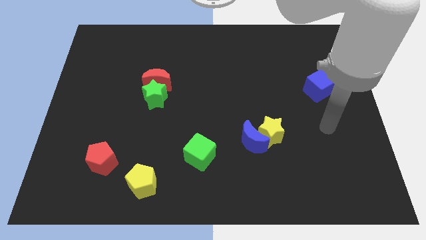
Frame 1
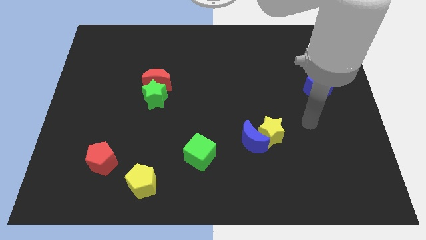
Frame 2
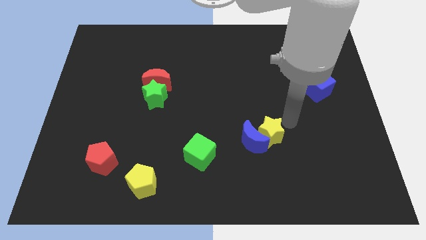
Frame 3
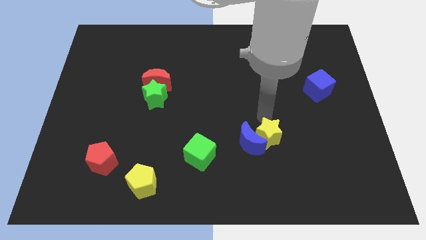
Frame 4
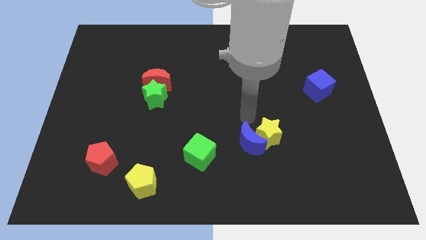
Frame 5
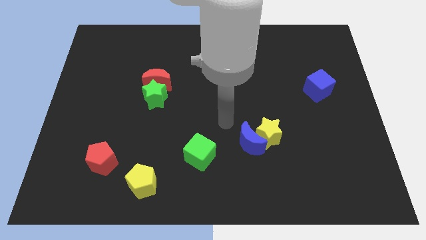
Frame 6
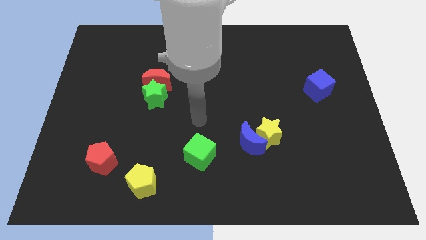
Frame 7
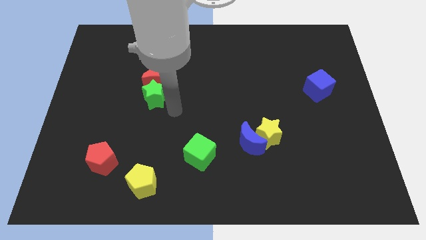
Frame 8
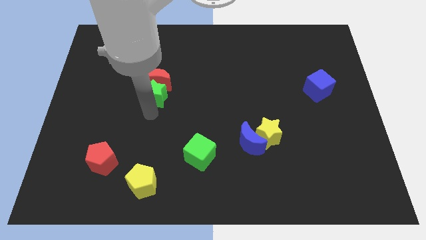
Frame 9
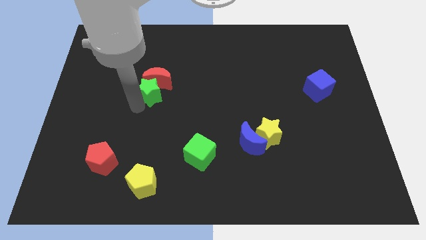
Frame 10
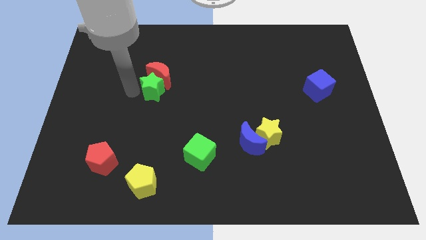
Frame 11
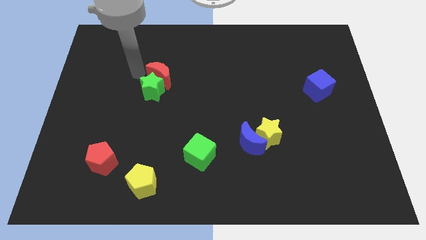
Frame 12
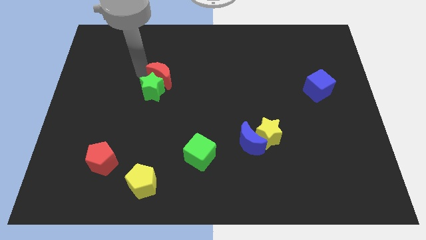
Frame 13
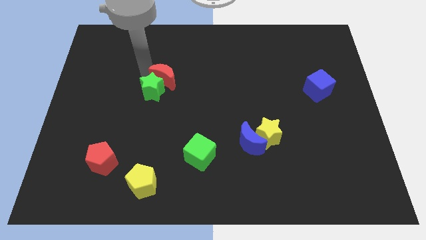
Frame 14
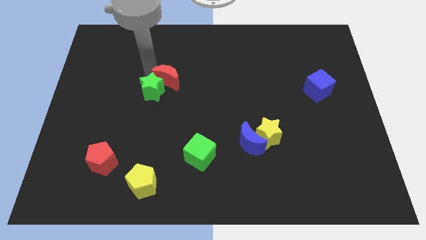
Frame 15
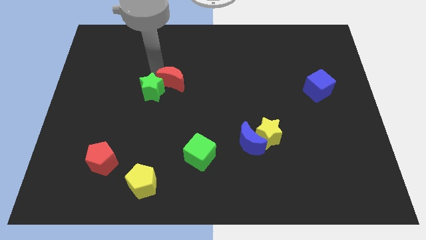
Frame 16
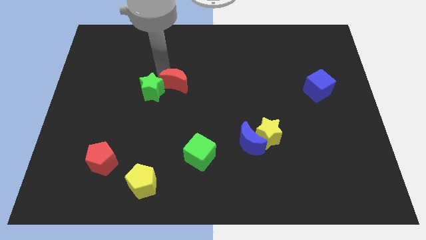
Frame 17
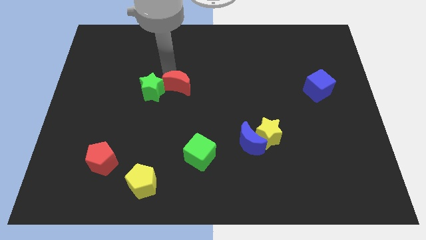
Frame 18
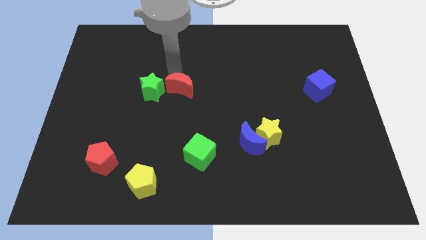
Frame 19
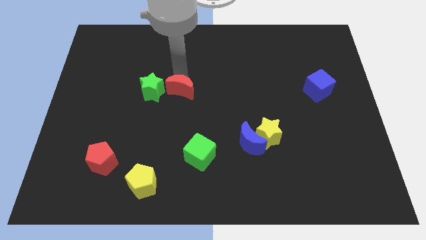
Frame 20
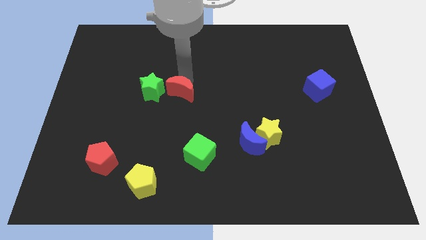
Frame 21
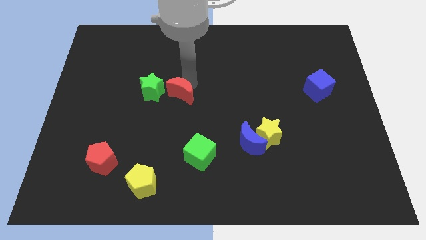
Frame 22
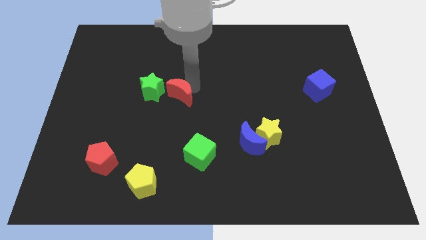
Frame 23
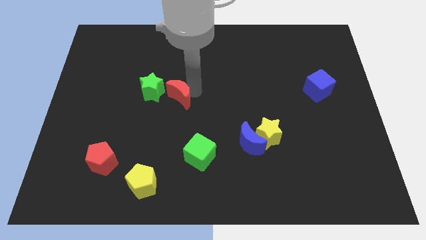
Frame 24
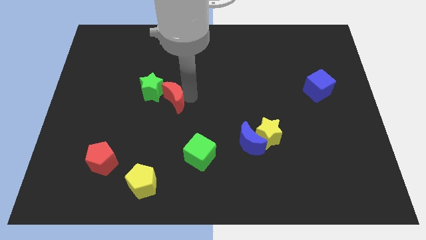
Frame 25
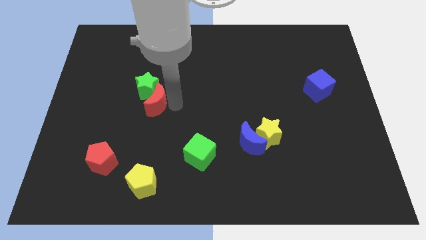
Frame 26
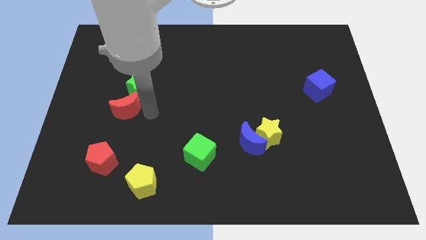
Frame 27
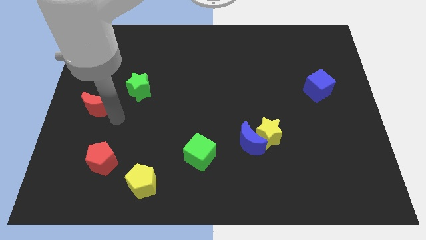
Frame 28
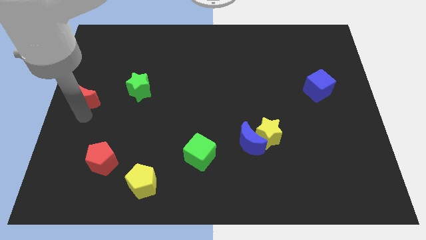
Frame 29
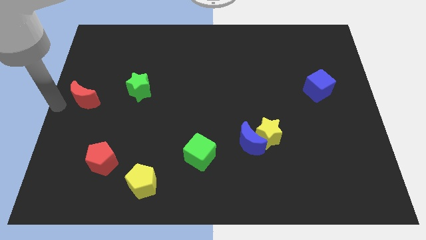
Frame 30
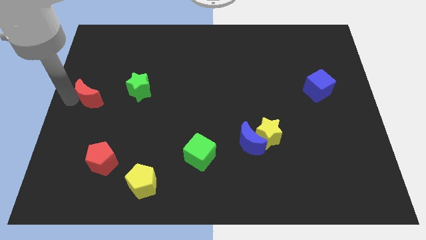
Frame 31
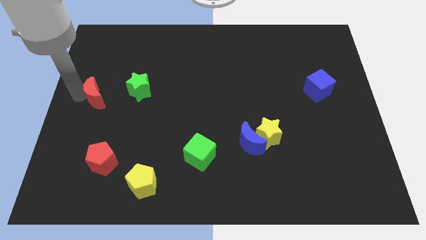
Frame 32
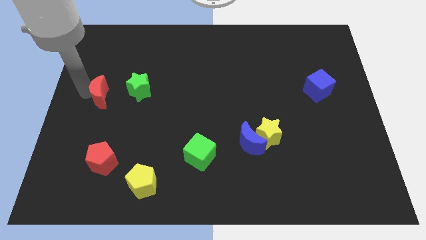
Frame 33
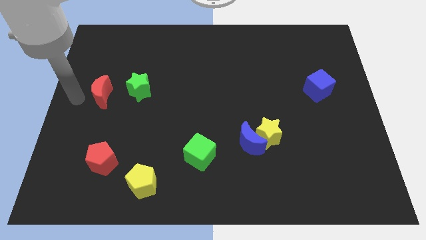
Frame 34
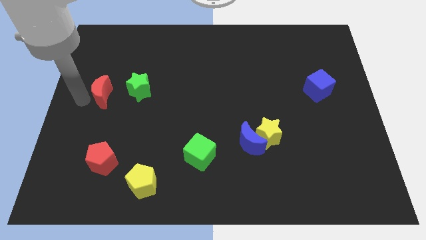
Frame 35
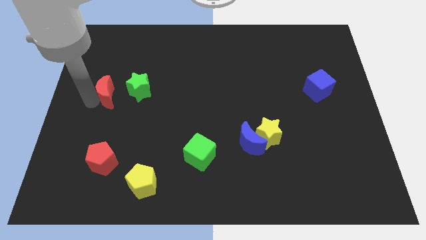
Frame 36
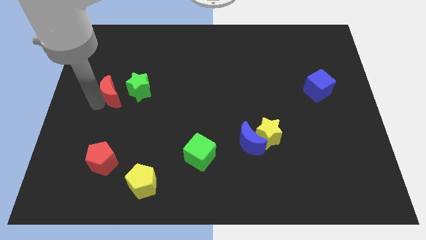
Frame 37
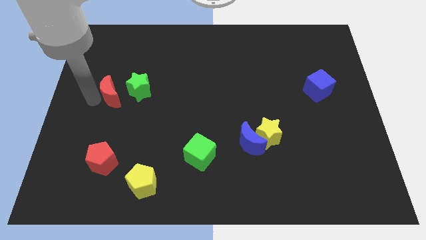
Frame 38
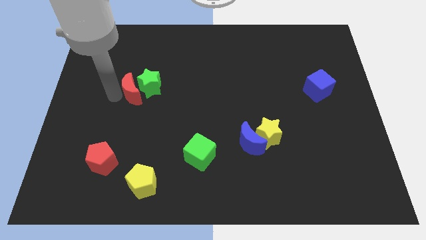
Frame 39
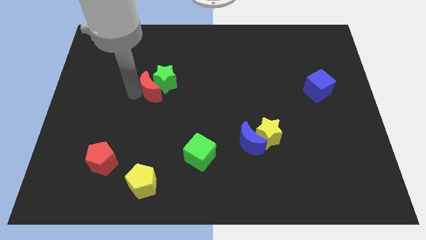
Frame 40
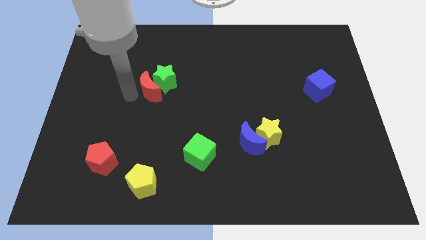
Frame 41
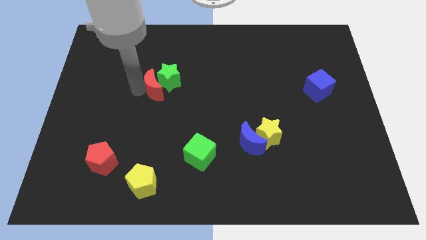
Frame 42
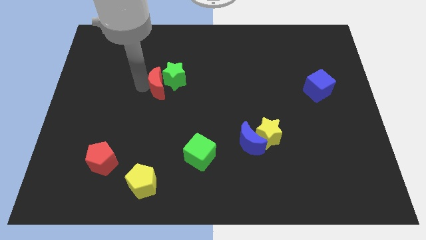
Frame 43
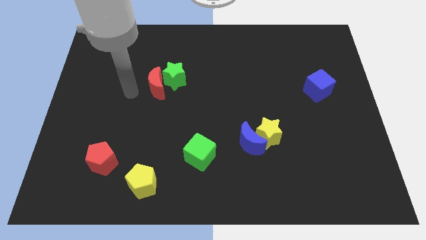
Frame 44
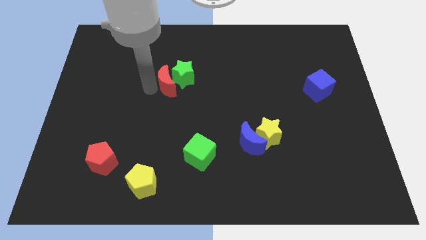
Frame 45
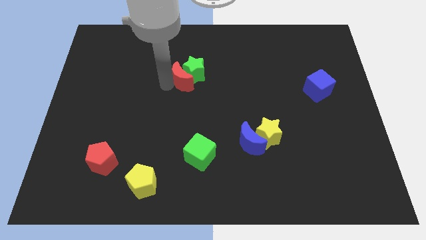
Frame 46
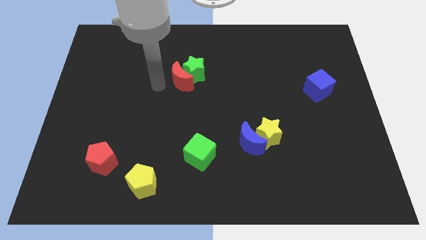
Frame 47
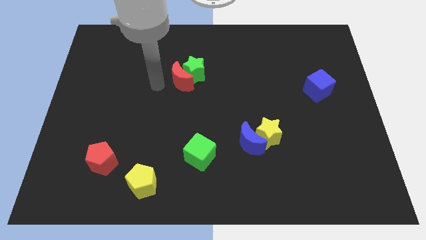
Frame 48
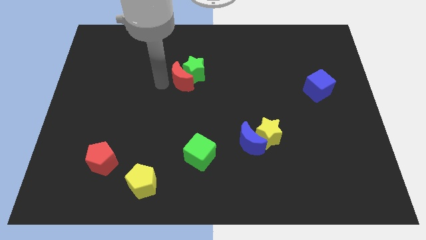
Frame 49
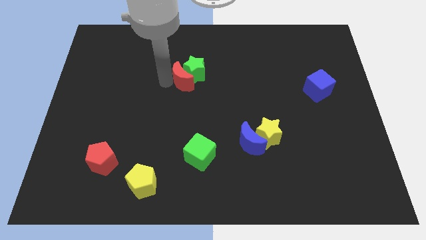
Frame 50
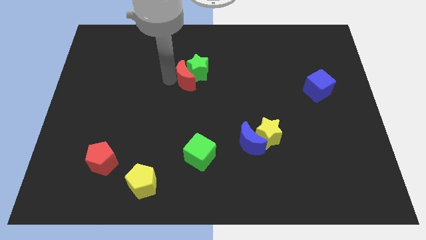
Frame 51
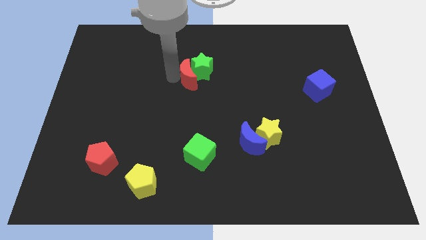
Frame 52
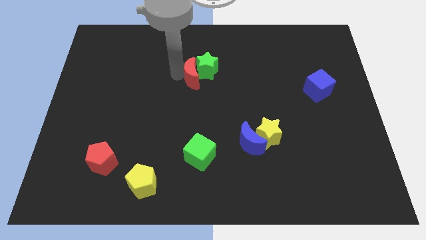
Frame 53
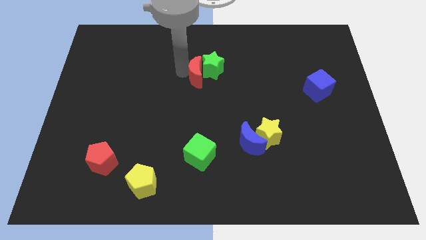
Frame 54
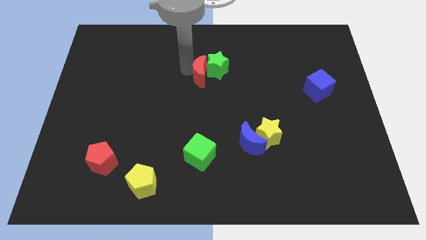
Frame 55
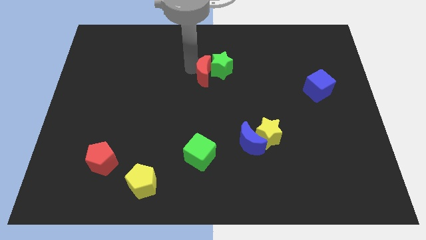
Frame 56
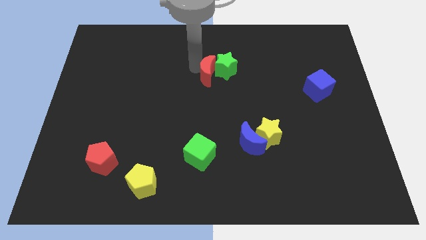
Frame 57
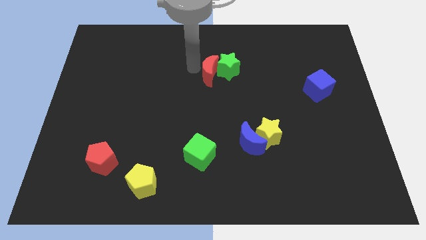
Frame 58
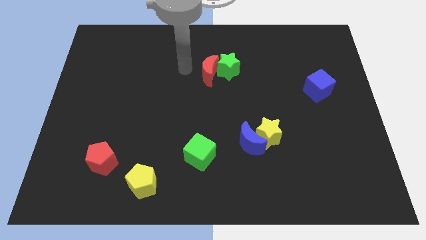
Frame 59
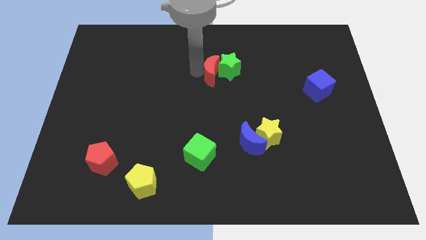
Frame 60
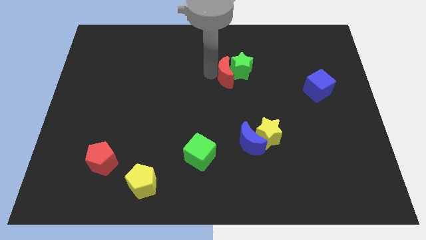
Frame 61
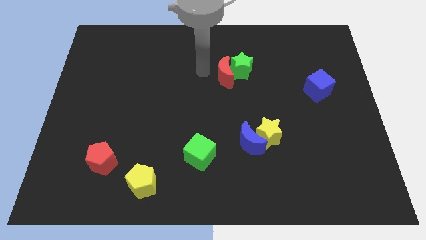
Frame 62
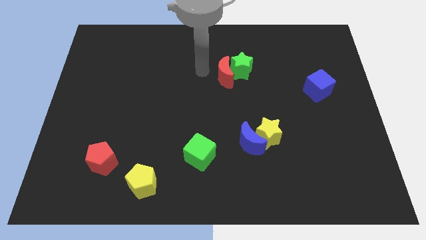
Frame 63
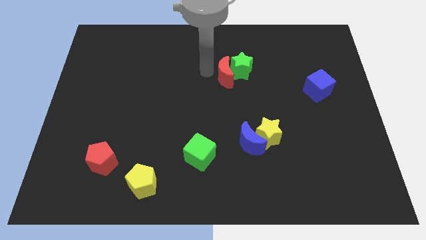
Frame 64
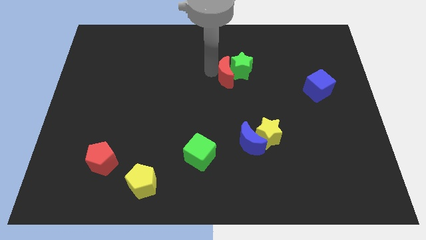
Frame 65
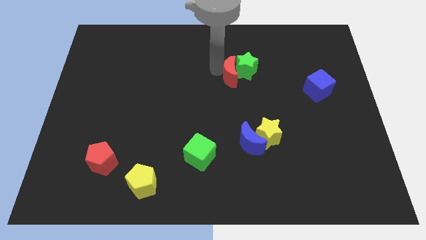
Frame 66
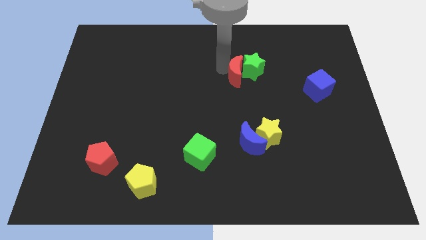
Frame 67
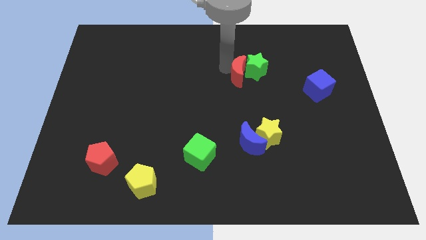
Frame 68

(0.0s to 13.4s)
move the red moon right

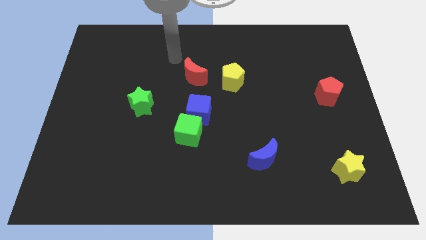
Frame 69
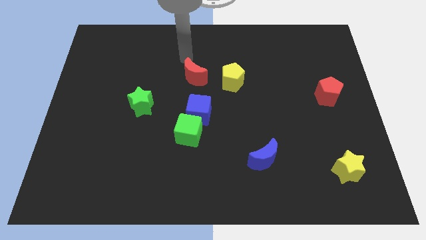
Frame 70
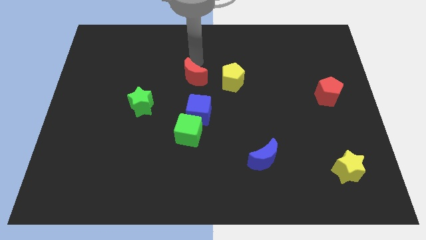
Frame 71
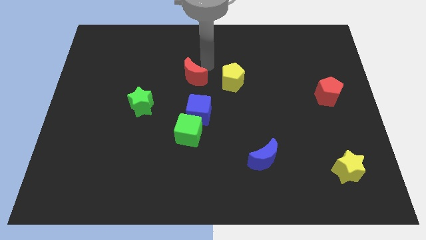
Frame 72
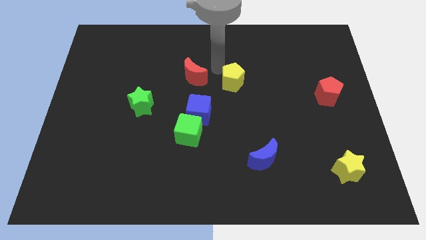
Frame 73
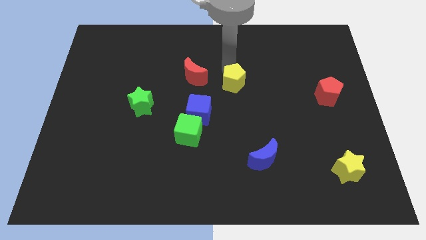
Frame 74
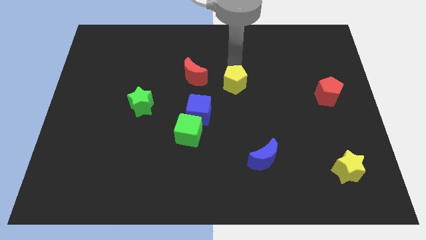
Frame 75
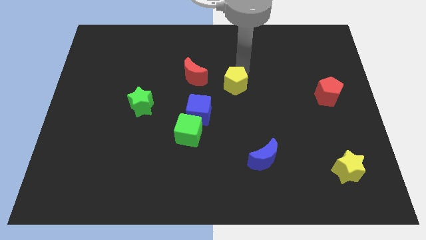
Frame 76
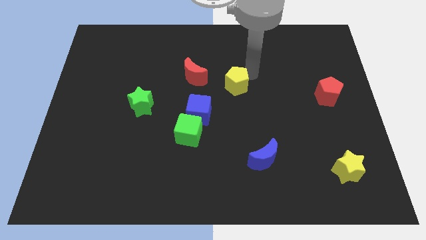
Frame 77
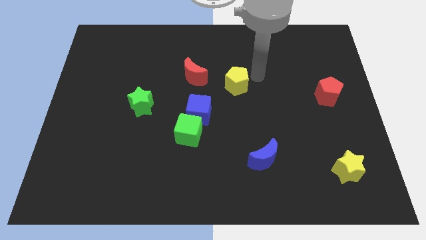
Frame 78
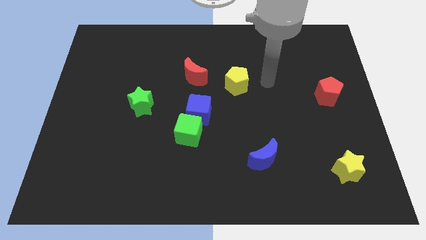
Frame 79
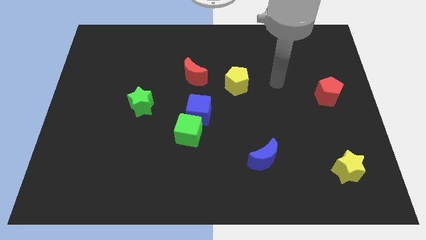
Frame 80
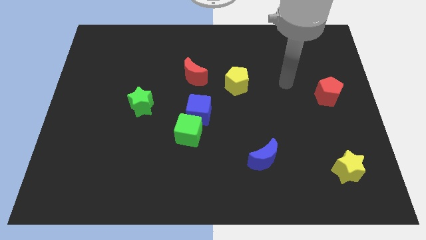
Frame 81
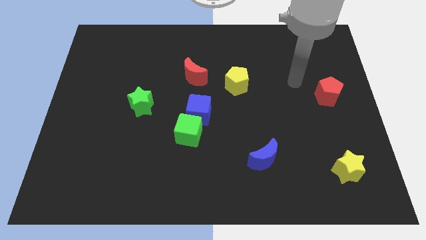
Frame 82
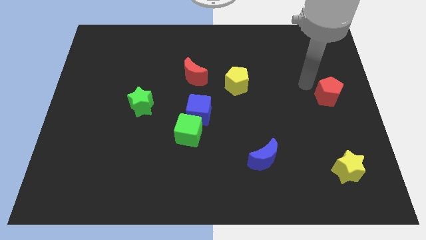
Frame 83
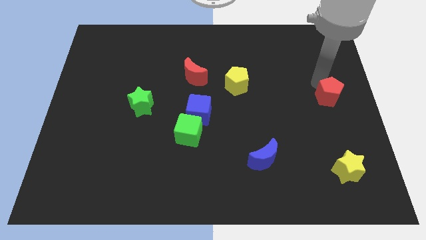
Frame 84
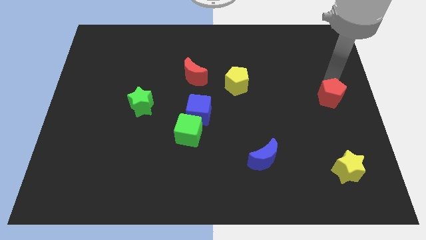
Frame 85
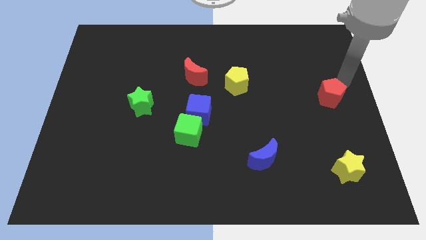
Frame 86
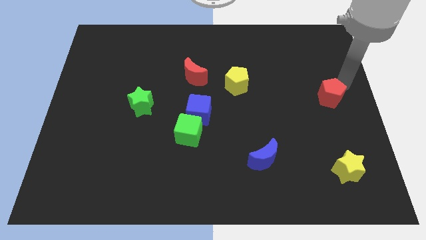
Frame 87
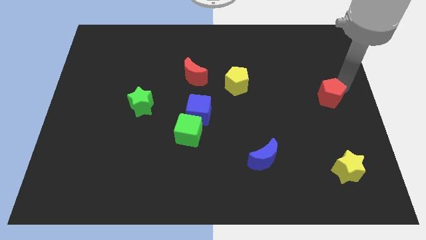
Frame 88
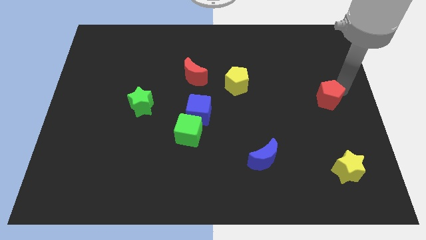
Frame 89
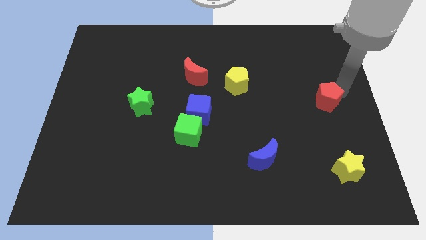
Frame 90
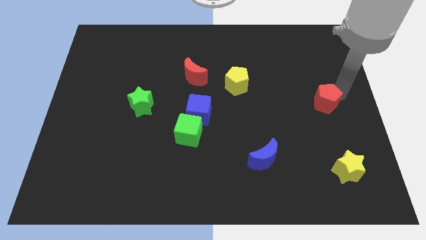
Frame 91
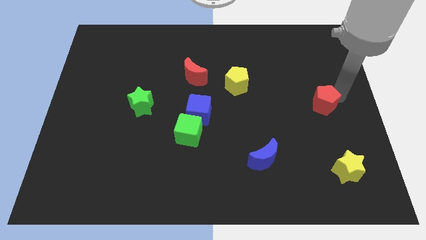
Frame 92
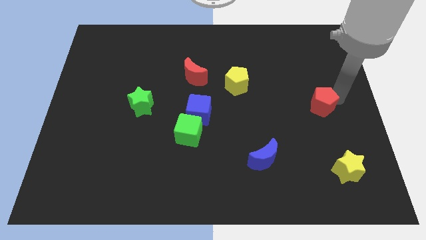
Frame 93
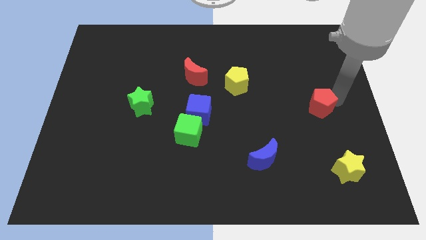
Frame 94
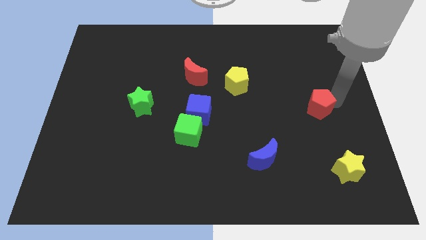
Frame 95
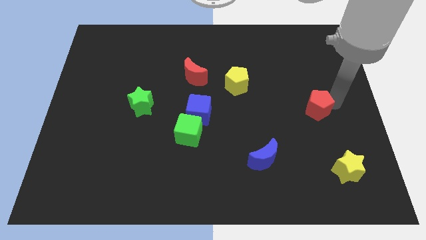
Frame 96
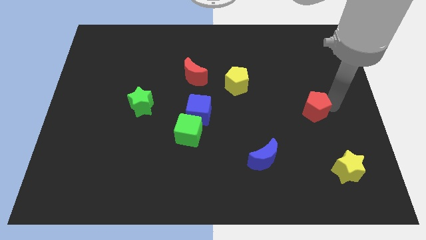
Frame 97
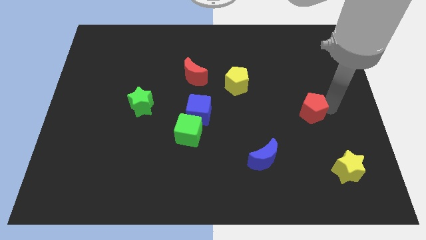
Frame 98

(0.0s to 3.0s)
push the red pentagon downwards and left a bit
